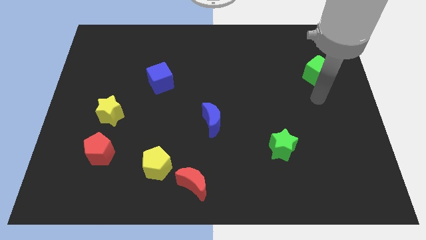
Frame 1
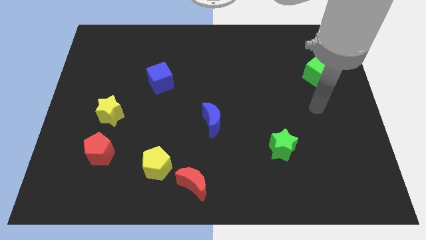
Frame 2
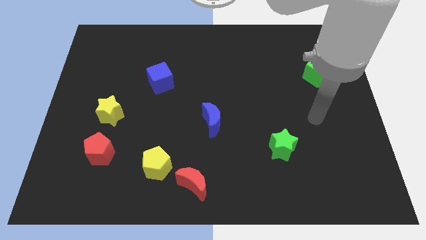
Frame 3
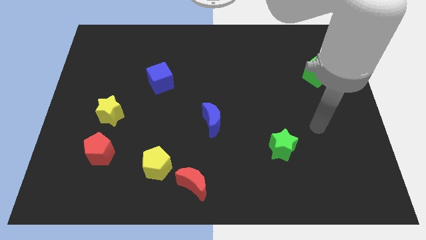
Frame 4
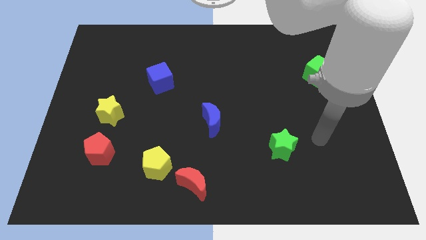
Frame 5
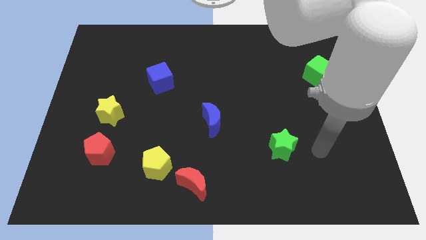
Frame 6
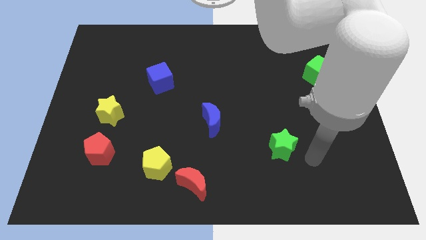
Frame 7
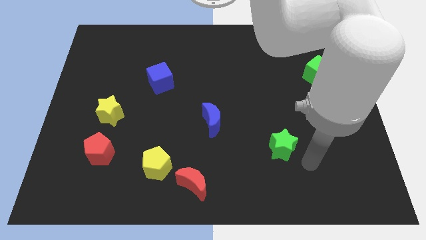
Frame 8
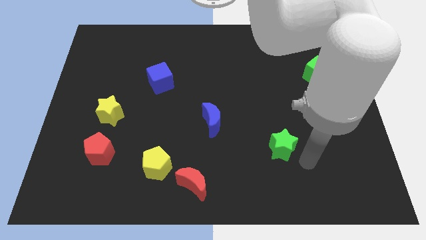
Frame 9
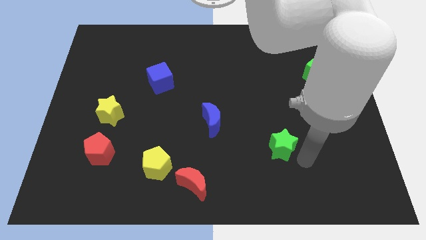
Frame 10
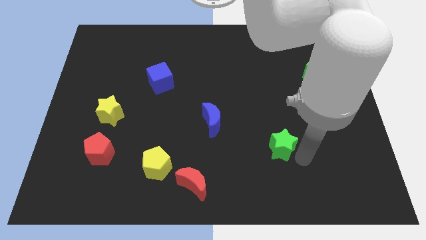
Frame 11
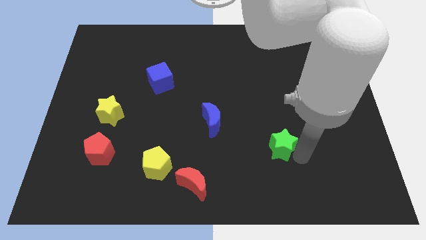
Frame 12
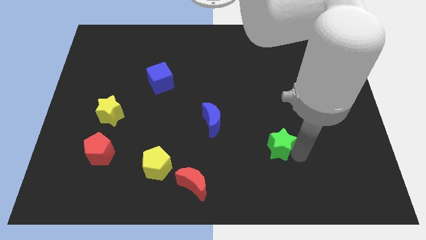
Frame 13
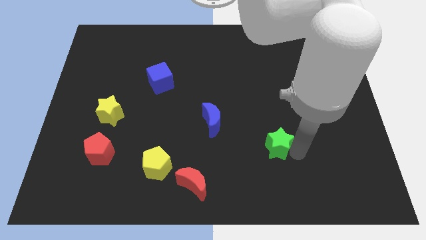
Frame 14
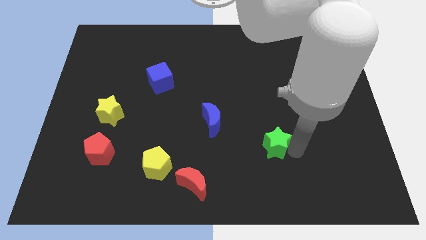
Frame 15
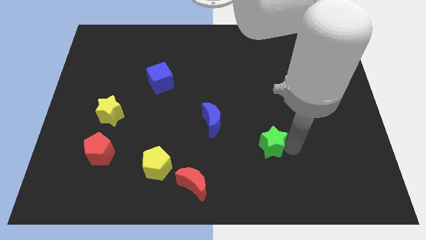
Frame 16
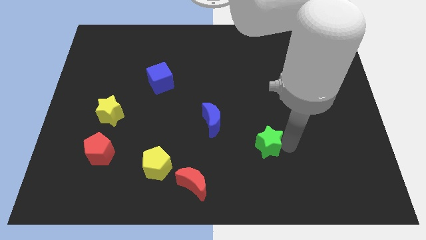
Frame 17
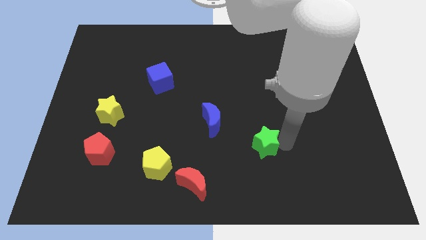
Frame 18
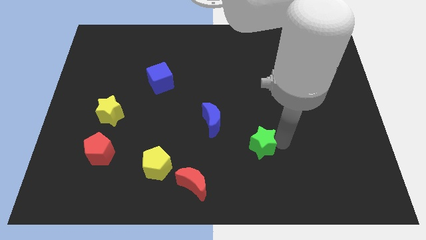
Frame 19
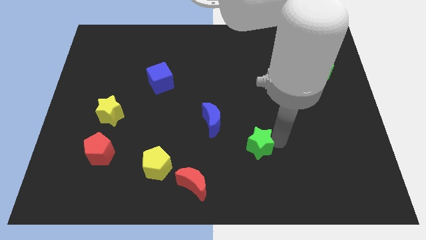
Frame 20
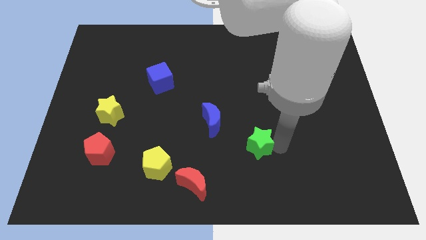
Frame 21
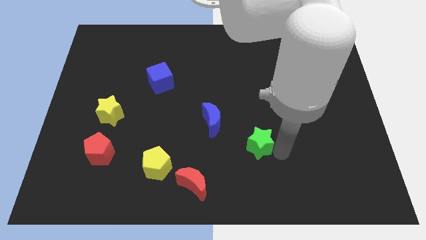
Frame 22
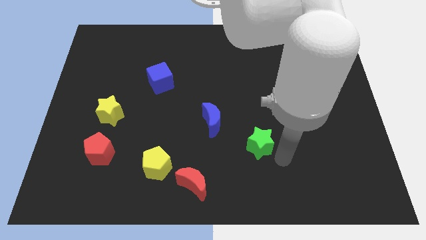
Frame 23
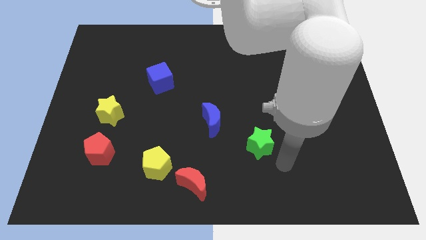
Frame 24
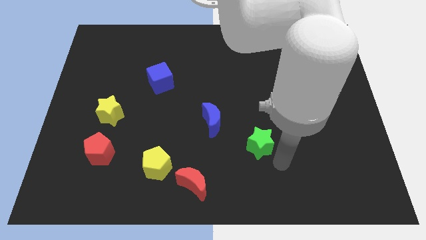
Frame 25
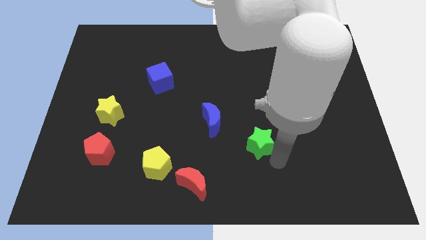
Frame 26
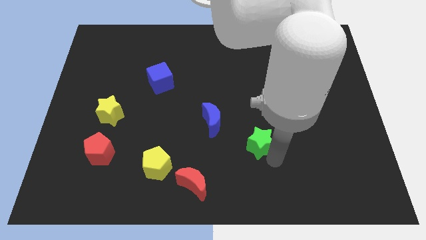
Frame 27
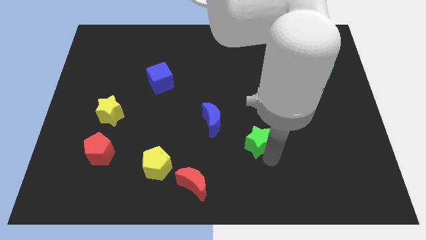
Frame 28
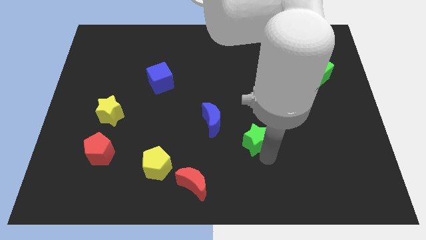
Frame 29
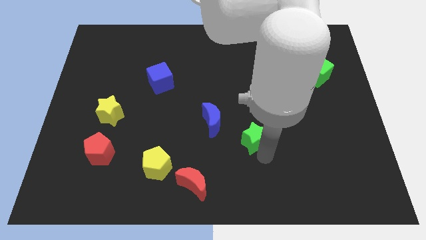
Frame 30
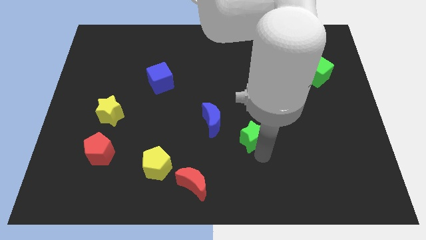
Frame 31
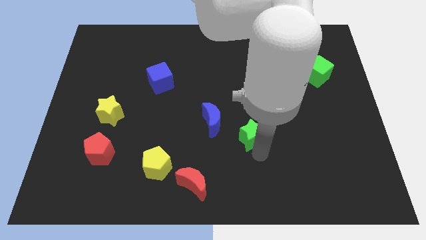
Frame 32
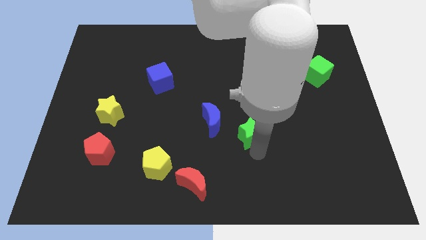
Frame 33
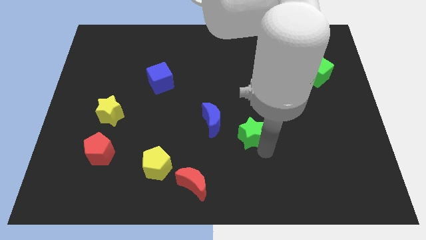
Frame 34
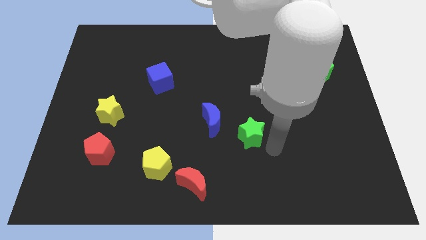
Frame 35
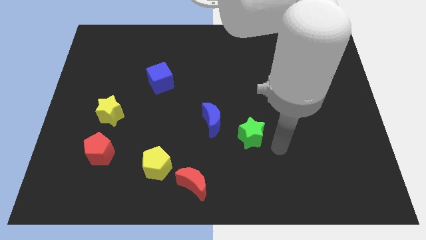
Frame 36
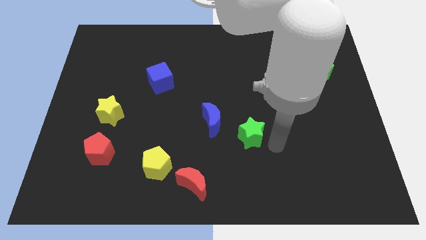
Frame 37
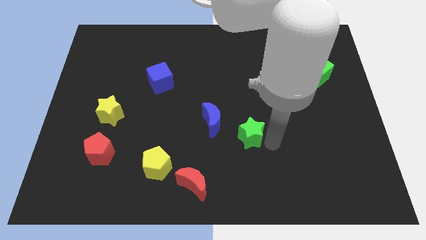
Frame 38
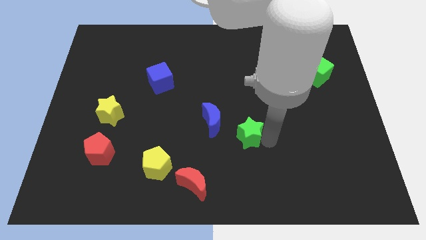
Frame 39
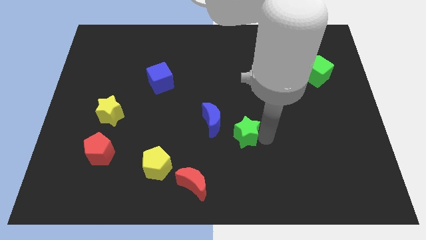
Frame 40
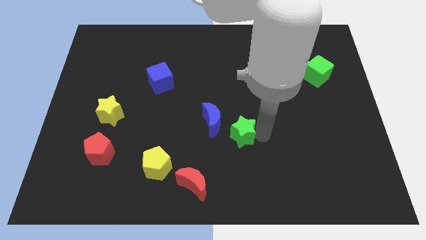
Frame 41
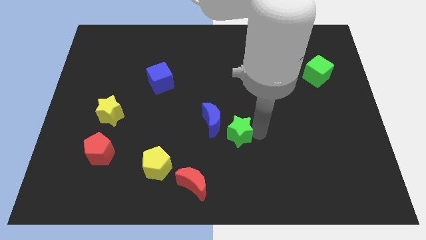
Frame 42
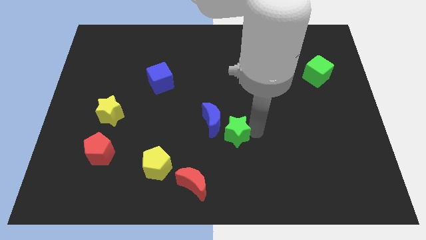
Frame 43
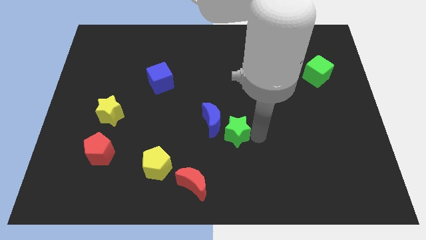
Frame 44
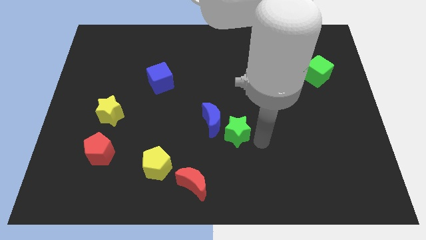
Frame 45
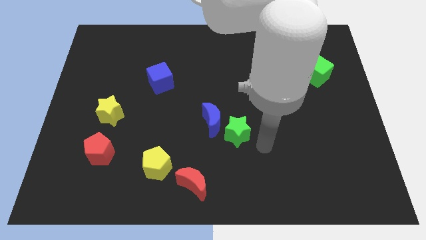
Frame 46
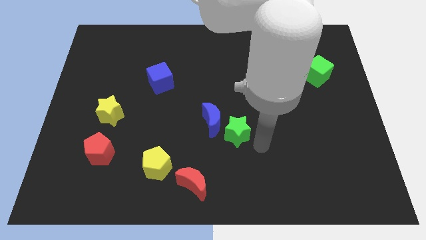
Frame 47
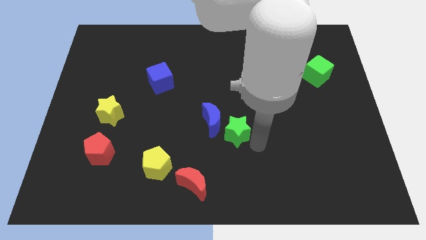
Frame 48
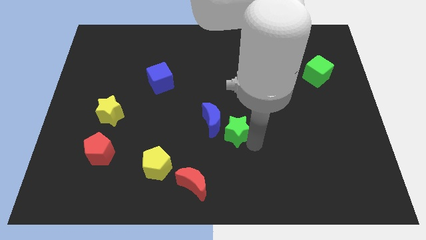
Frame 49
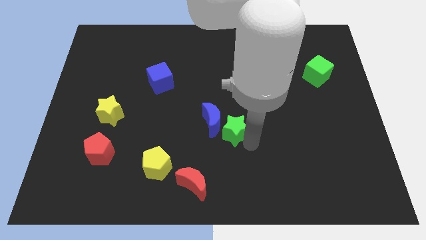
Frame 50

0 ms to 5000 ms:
move the green star next to the blue moon

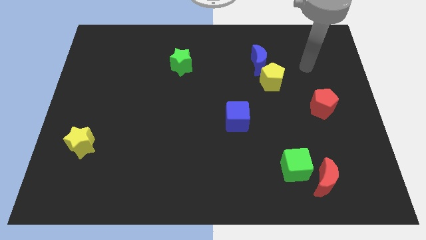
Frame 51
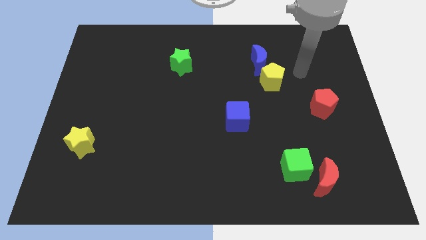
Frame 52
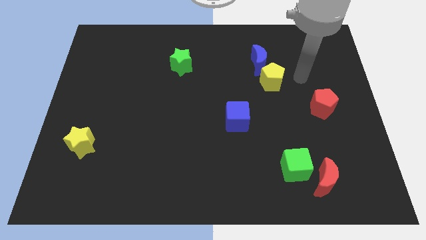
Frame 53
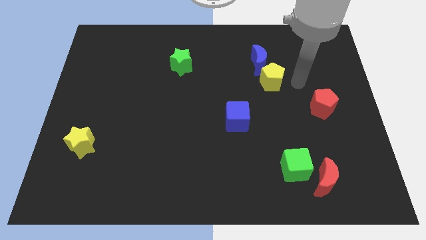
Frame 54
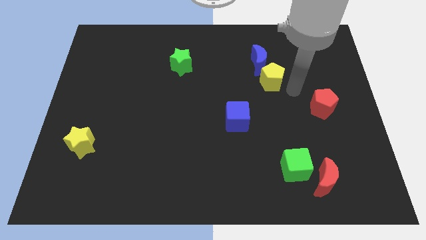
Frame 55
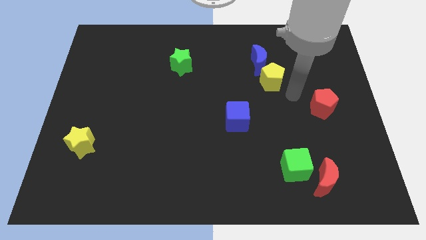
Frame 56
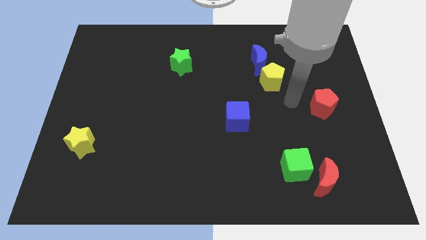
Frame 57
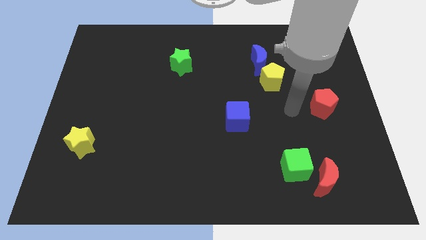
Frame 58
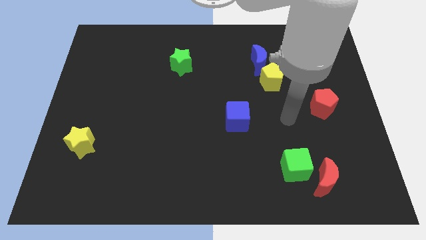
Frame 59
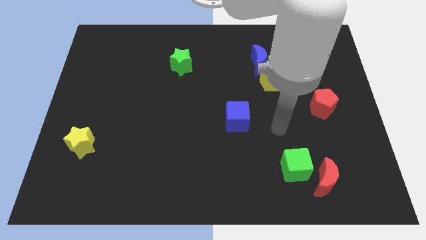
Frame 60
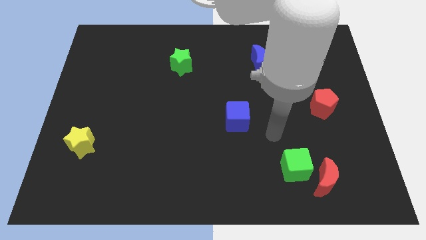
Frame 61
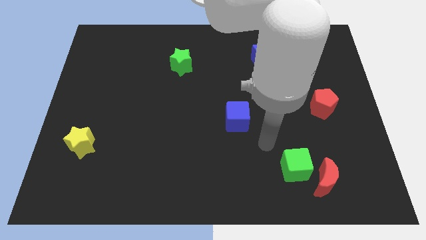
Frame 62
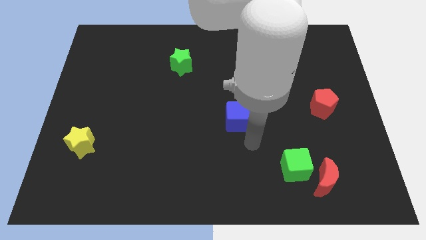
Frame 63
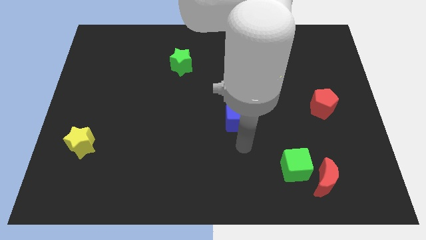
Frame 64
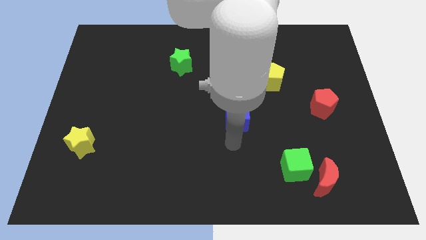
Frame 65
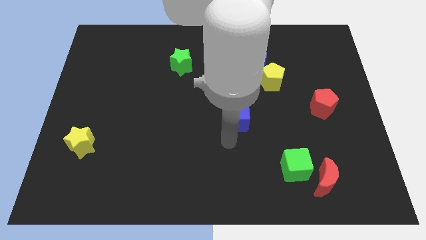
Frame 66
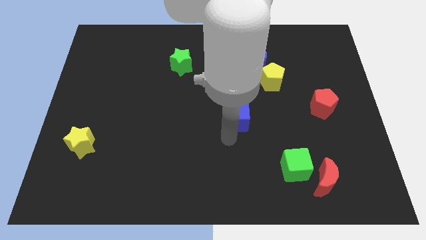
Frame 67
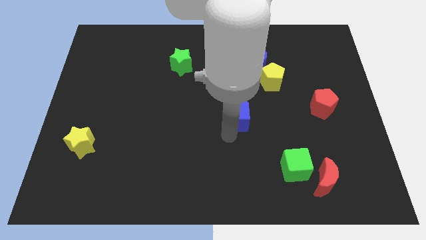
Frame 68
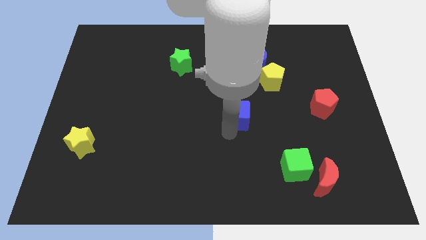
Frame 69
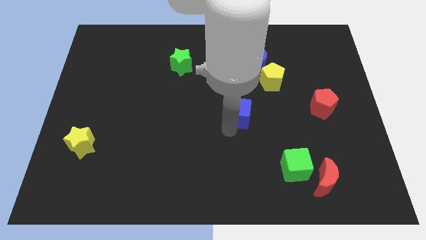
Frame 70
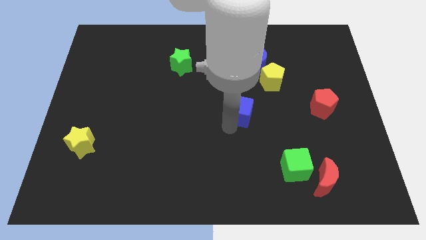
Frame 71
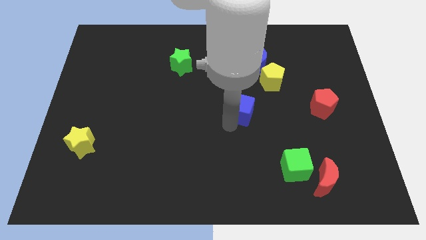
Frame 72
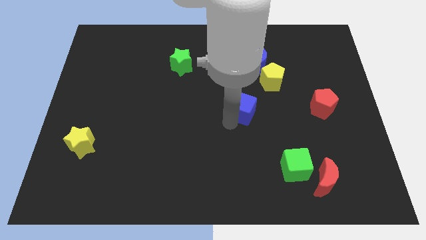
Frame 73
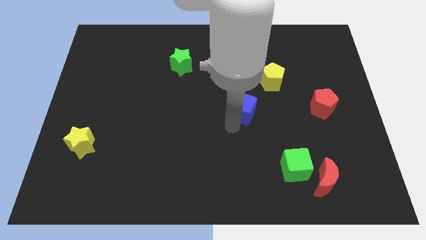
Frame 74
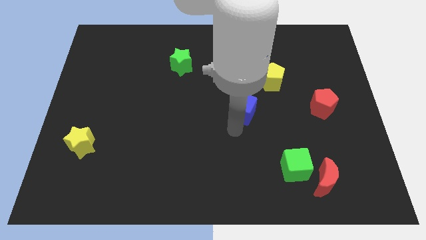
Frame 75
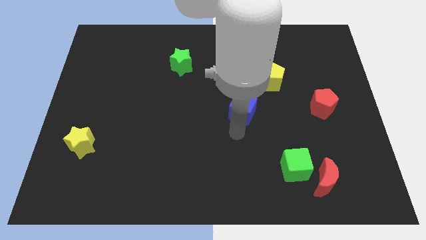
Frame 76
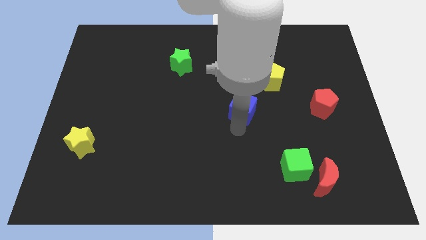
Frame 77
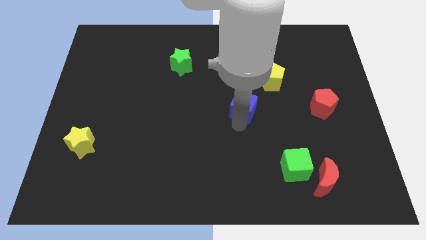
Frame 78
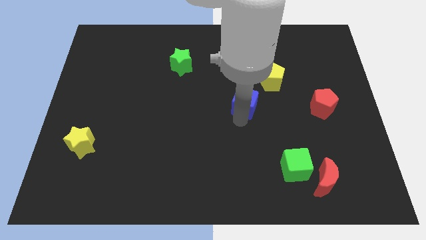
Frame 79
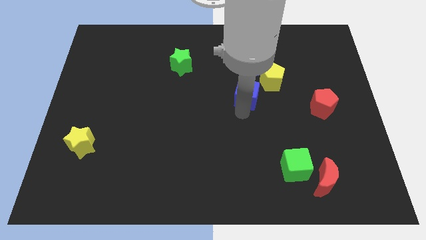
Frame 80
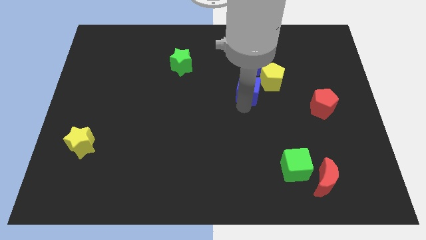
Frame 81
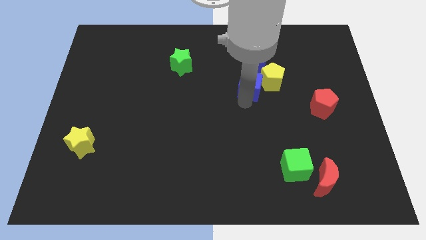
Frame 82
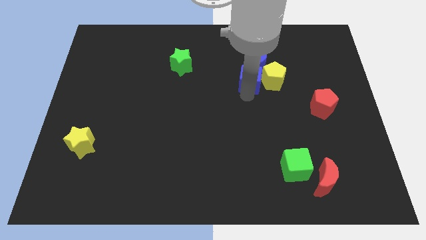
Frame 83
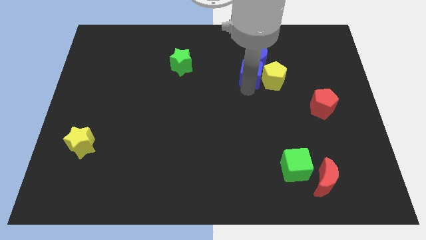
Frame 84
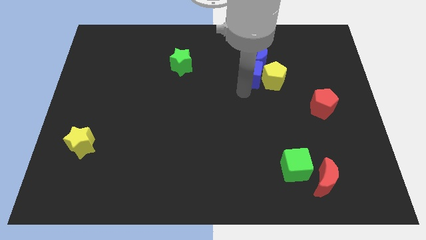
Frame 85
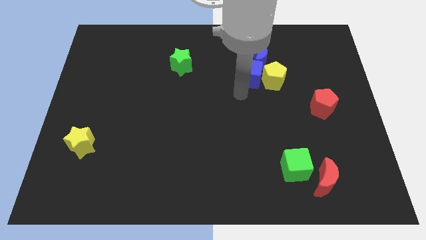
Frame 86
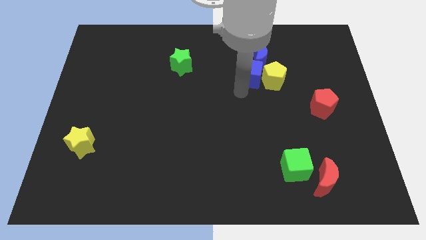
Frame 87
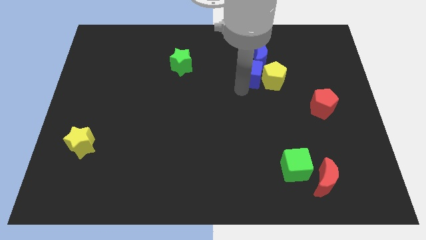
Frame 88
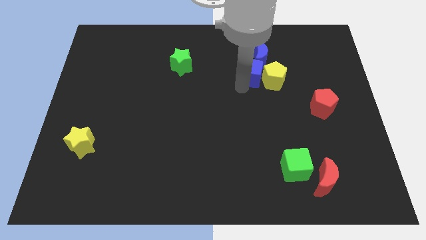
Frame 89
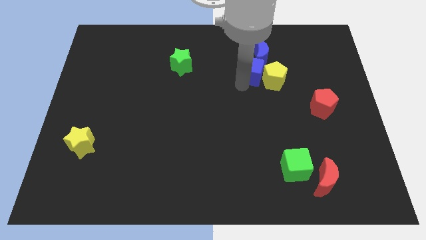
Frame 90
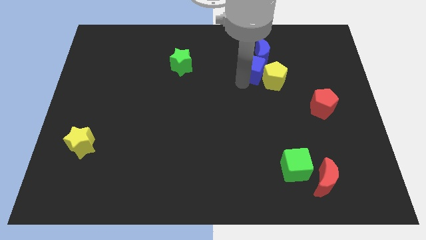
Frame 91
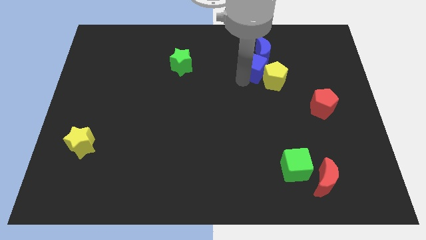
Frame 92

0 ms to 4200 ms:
slide the blue cube to the blue moon
